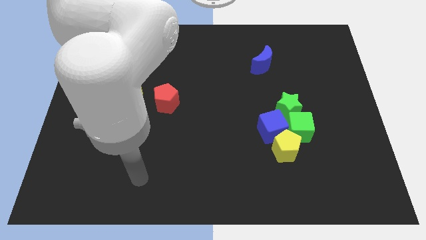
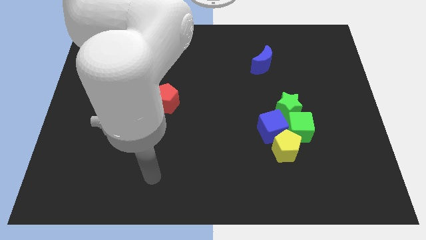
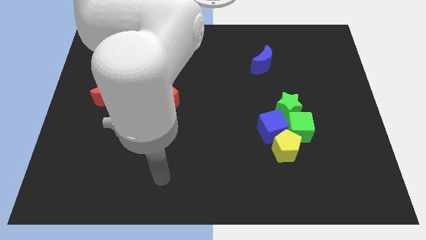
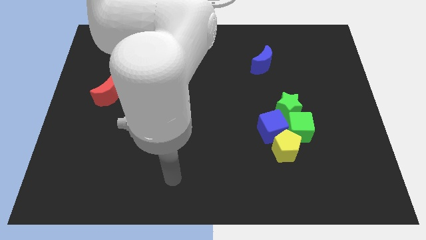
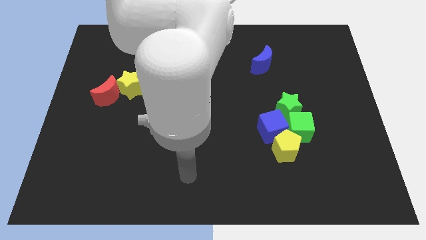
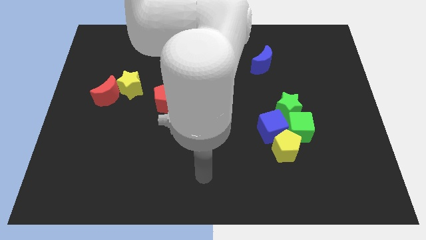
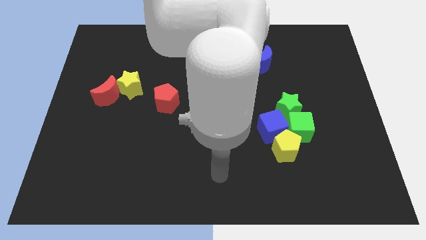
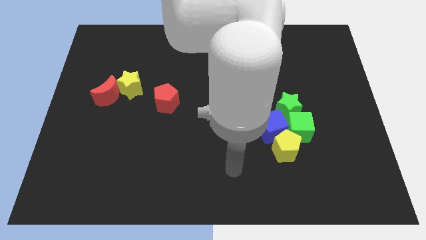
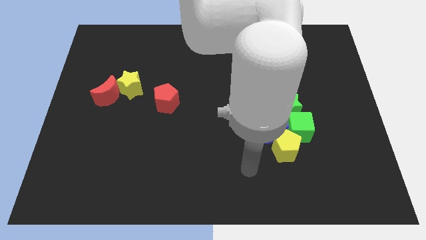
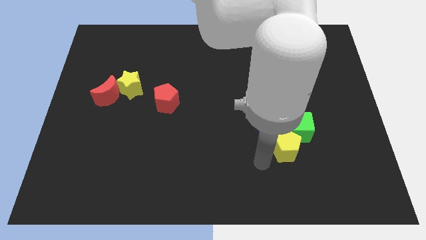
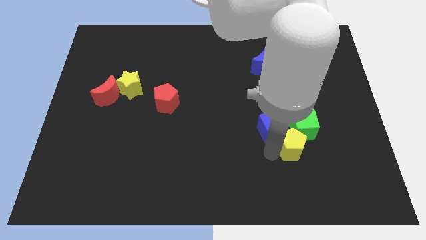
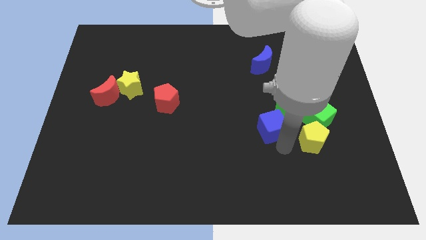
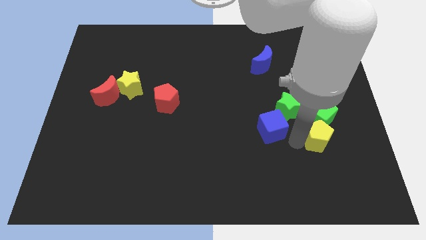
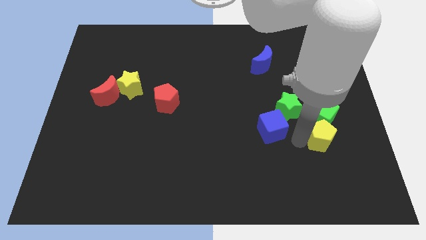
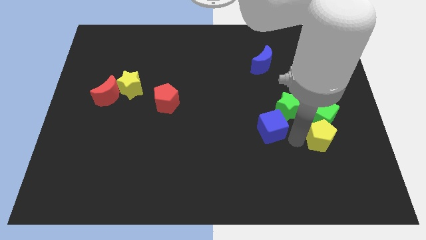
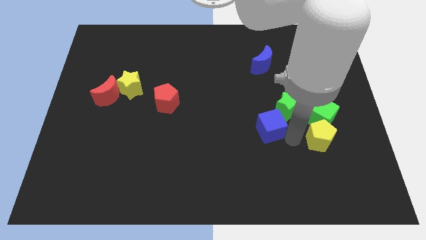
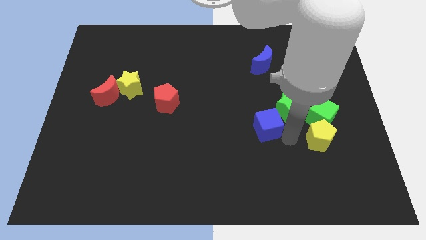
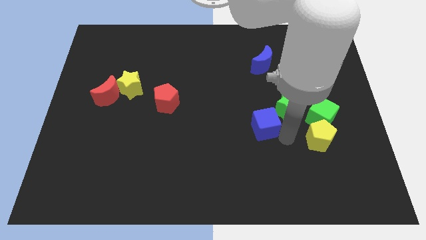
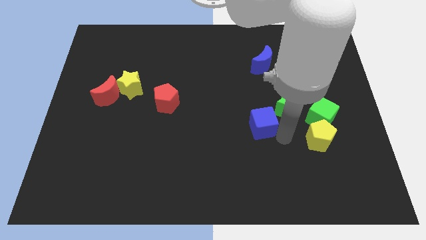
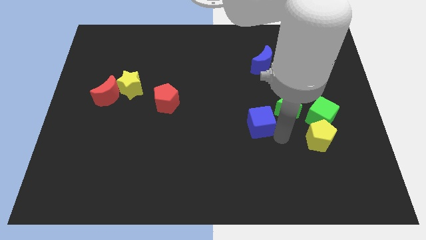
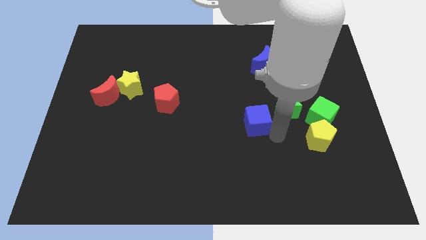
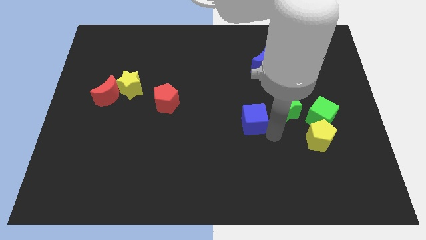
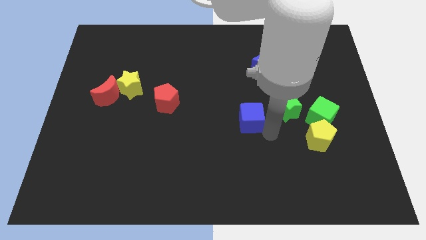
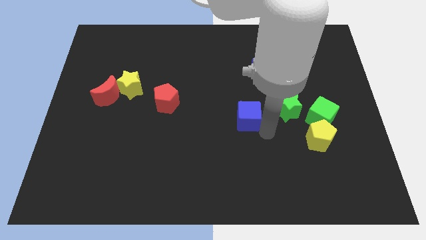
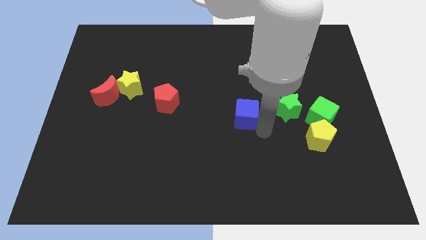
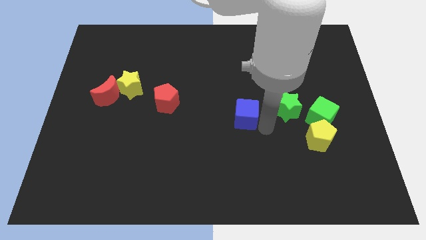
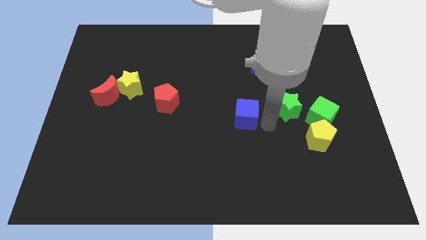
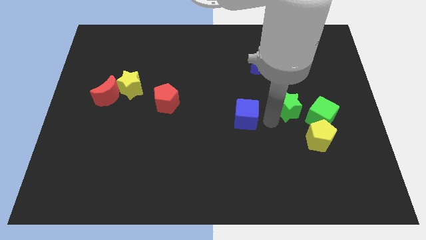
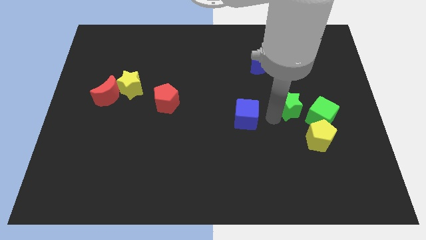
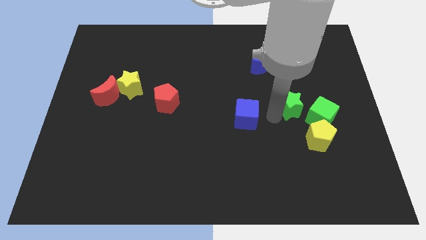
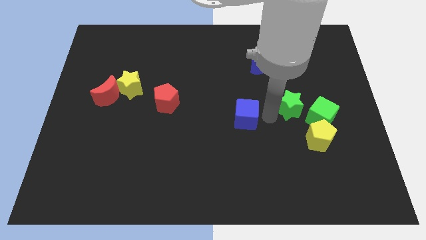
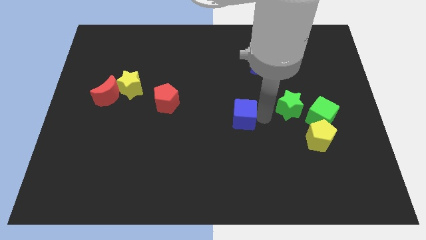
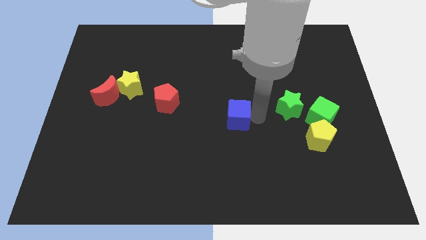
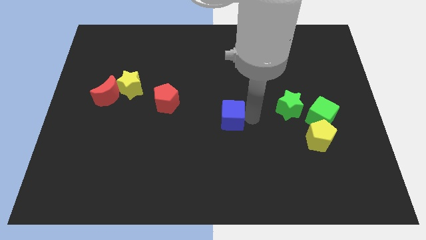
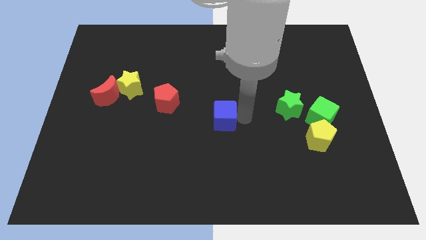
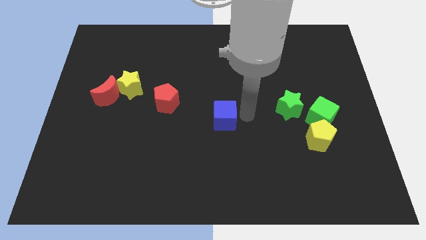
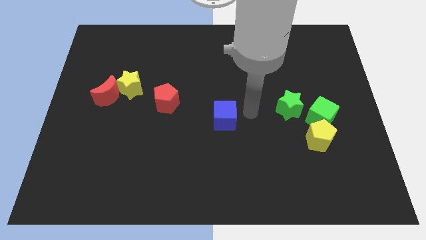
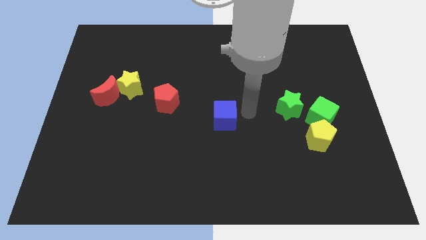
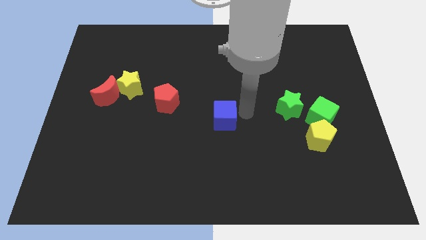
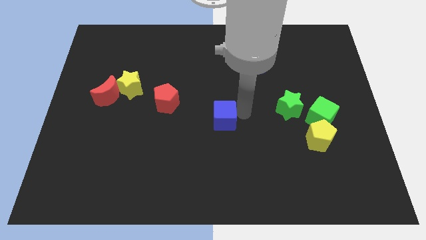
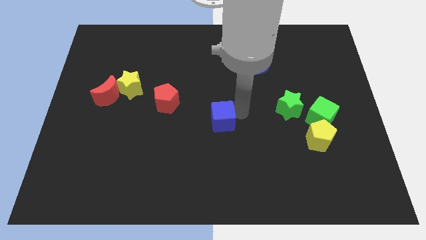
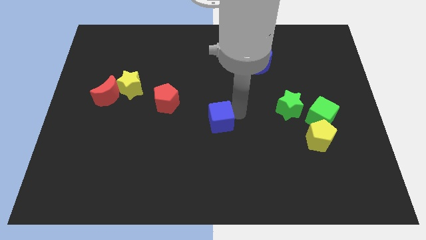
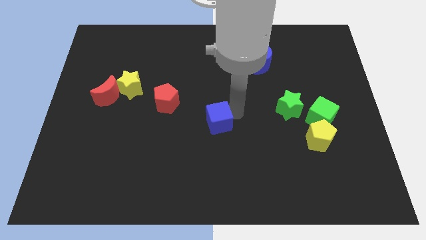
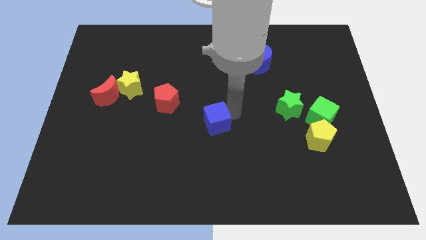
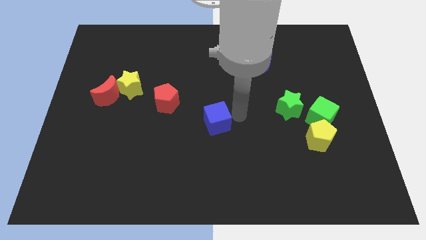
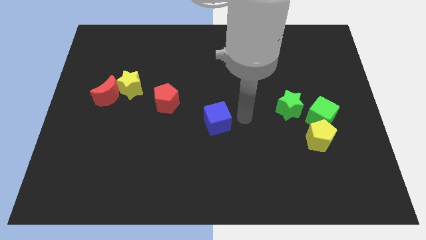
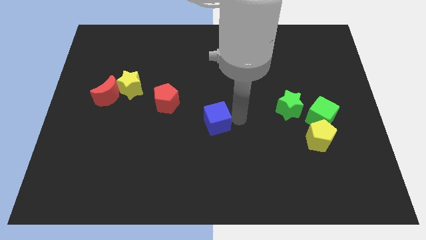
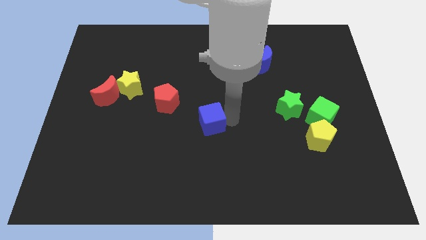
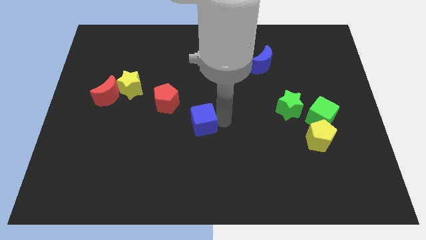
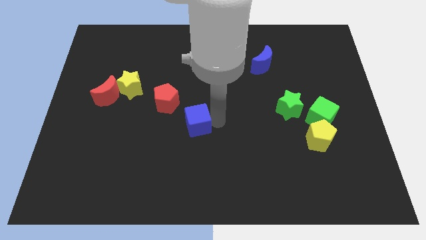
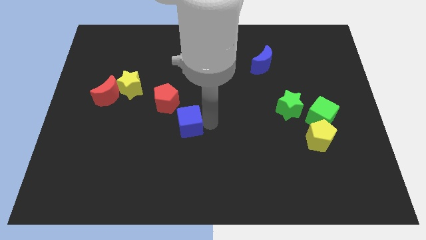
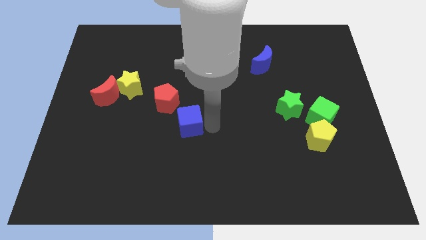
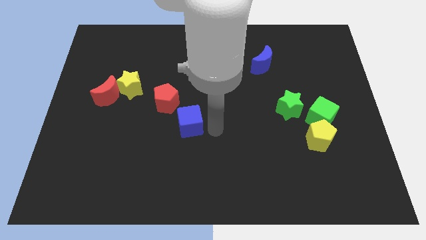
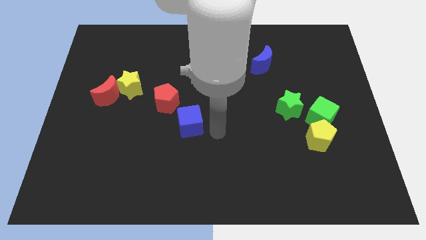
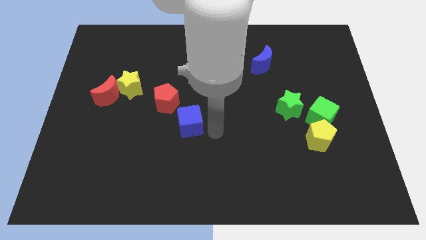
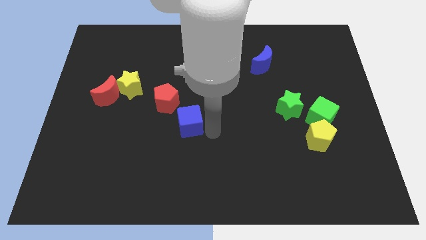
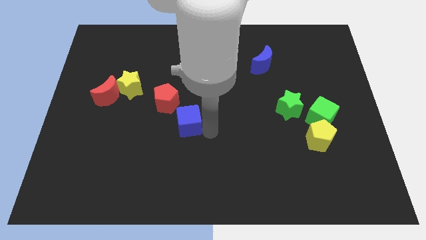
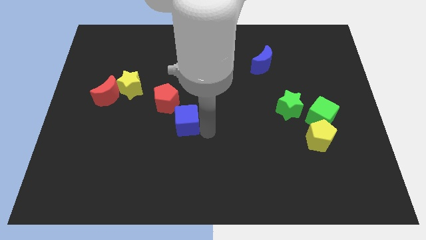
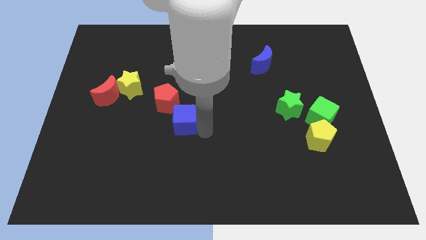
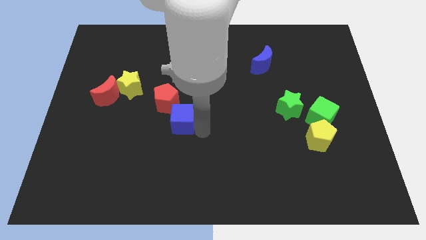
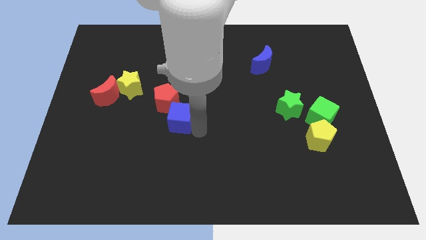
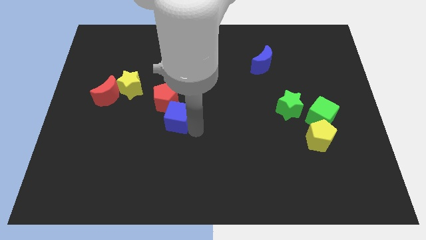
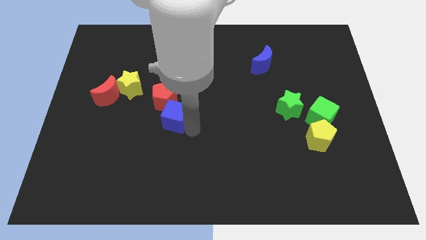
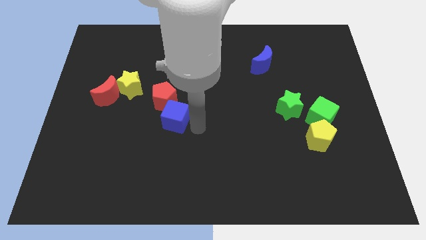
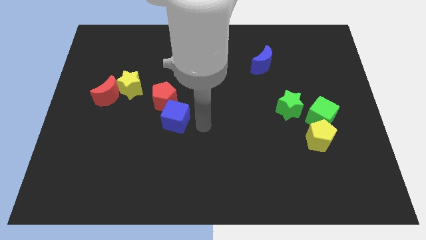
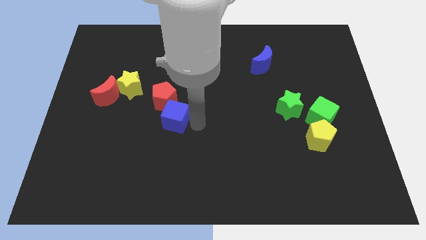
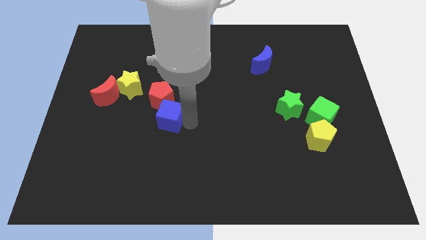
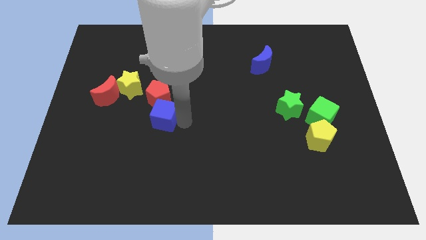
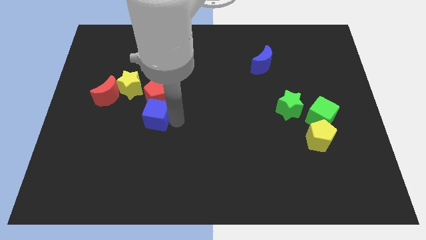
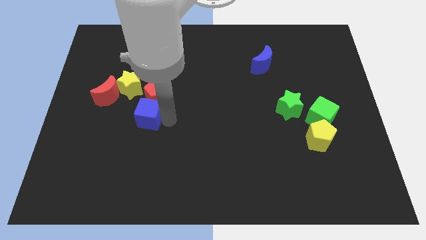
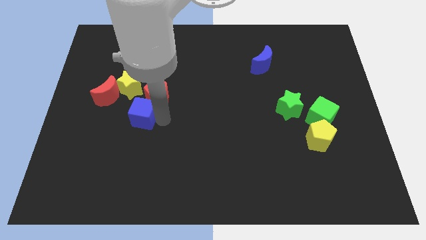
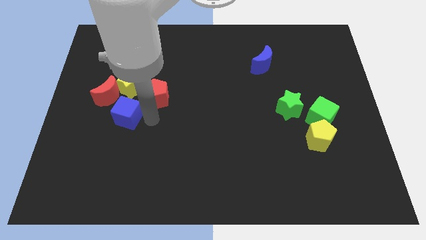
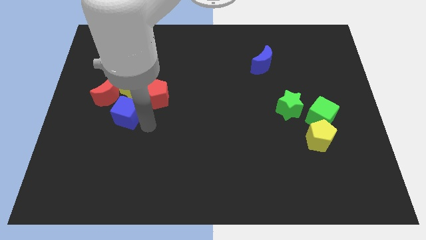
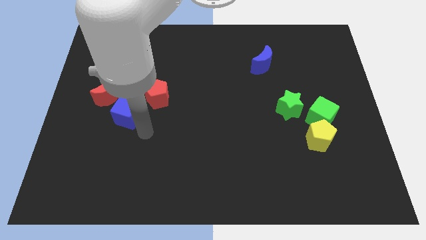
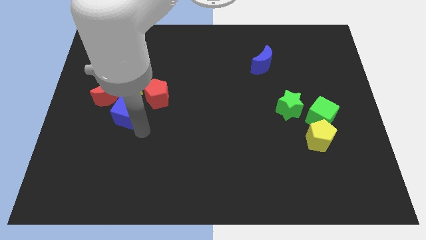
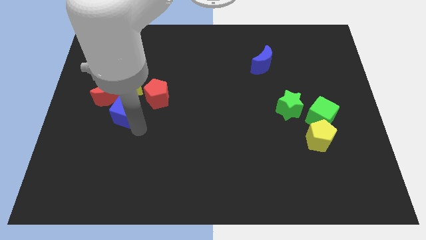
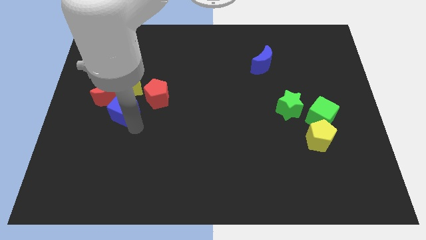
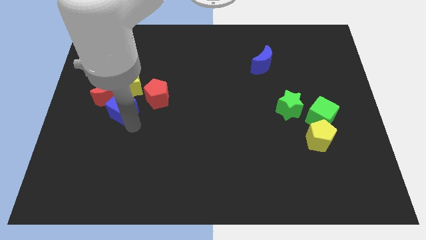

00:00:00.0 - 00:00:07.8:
slide the blue cube to the red moon

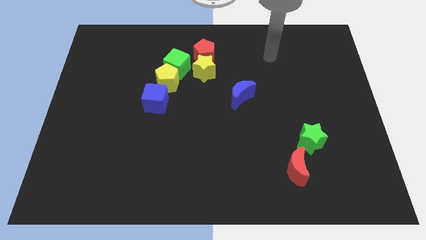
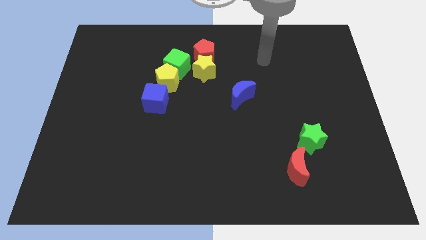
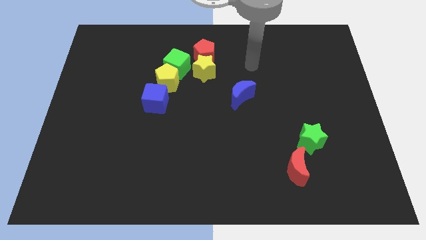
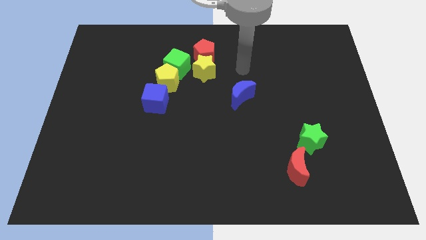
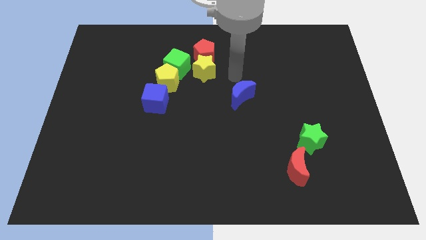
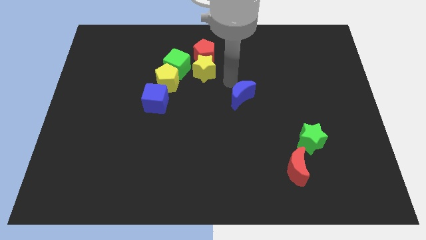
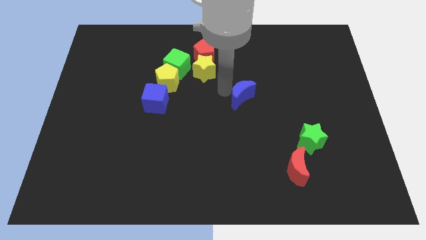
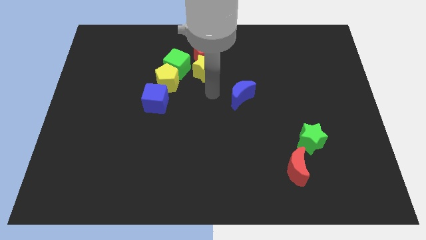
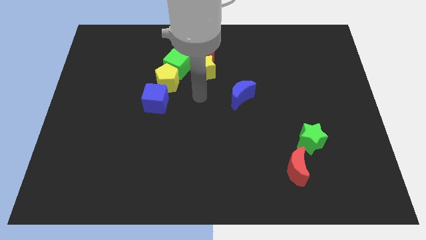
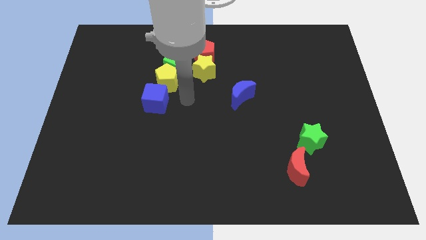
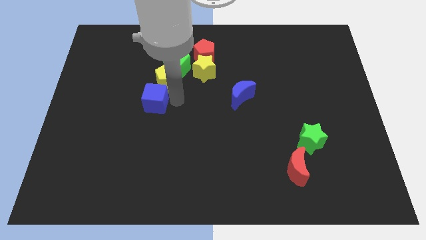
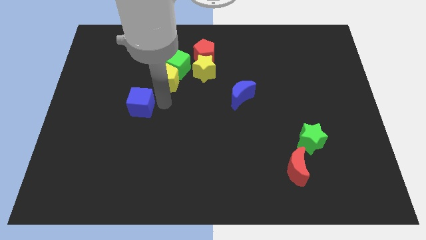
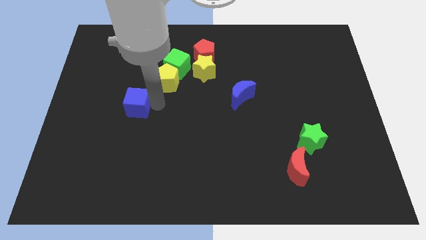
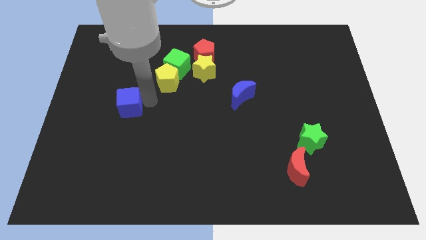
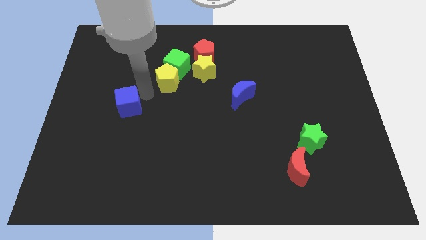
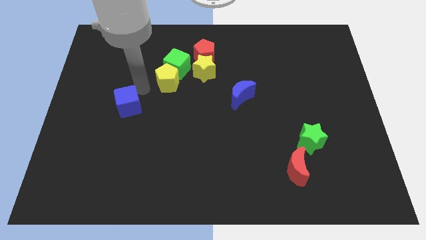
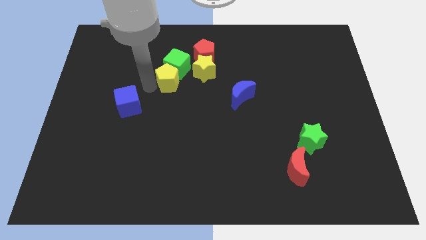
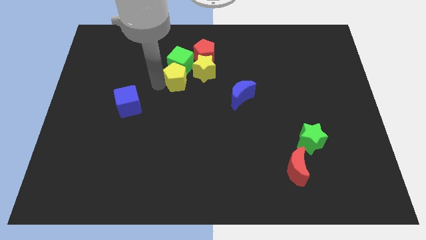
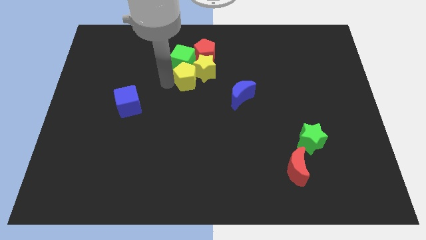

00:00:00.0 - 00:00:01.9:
push the yellow pentagon to the yellow star
